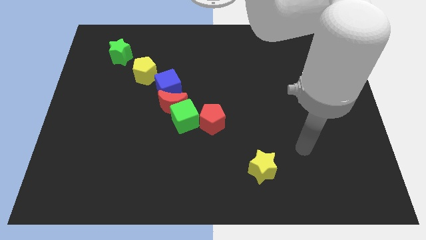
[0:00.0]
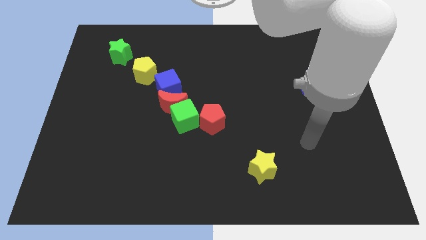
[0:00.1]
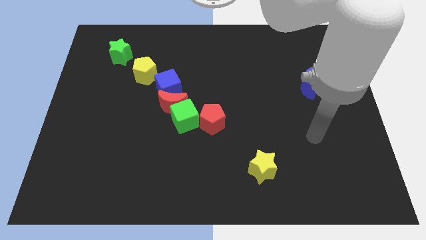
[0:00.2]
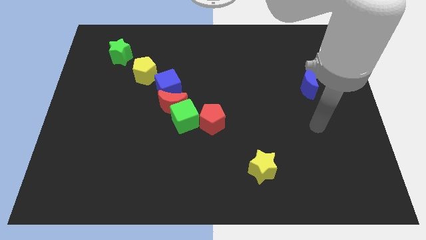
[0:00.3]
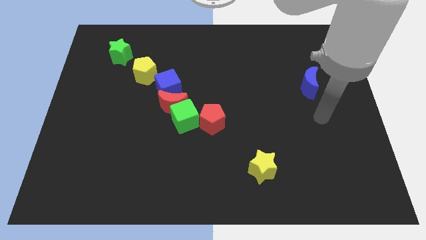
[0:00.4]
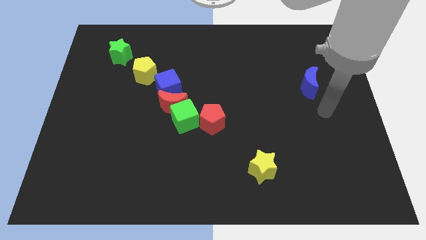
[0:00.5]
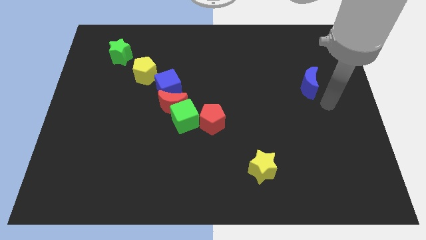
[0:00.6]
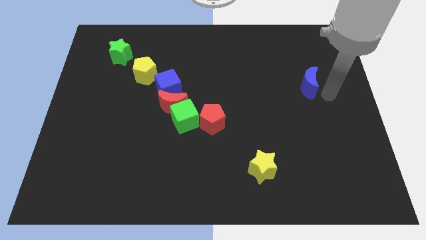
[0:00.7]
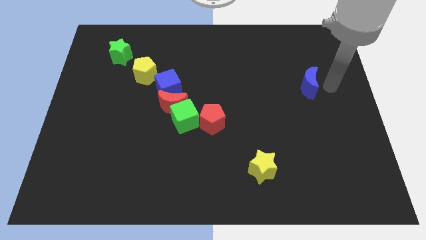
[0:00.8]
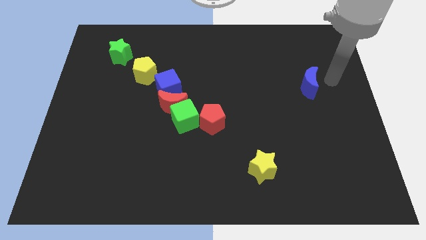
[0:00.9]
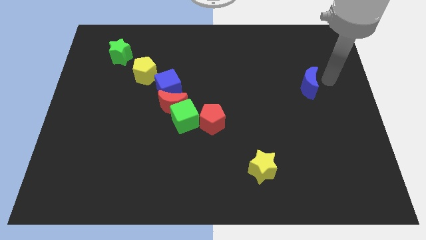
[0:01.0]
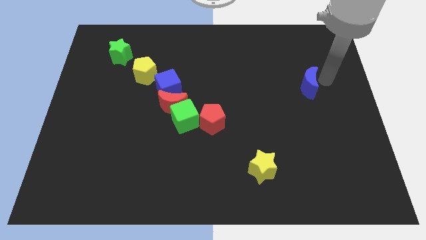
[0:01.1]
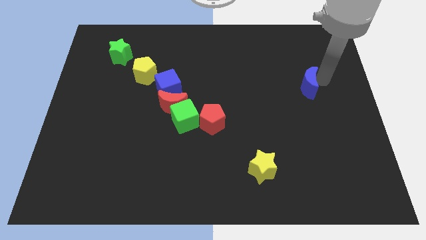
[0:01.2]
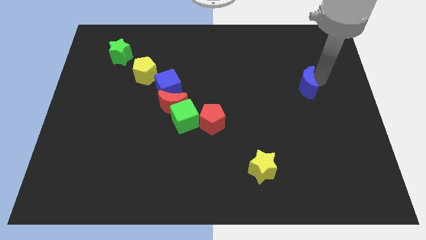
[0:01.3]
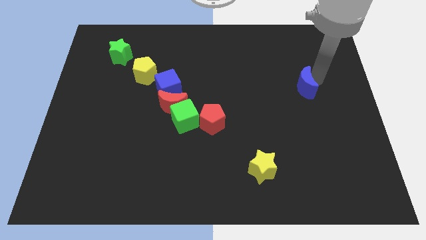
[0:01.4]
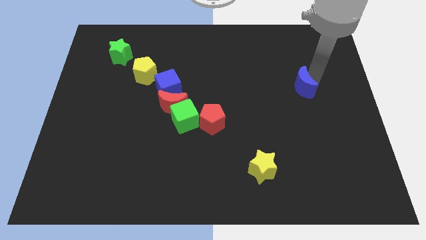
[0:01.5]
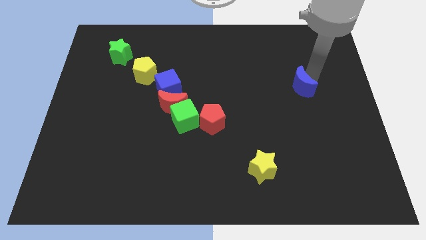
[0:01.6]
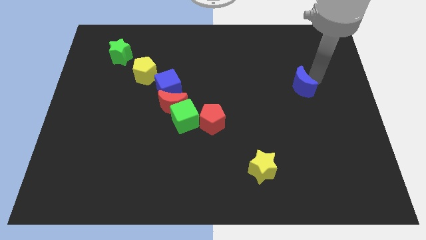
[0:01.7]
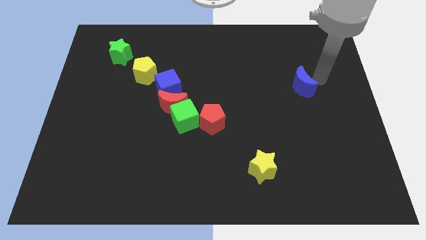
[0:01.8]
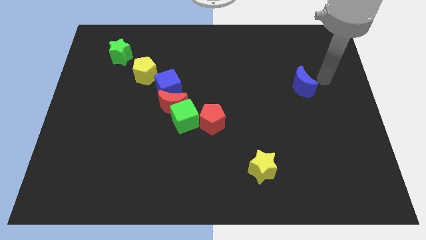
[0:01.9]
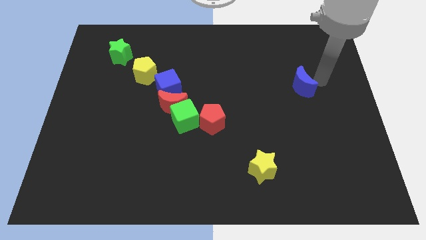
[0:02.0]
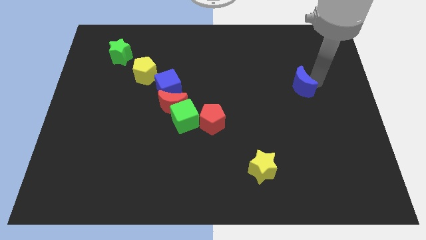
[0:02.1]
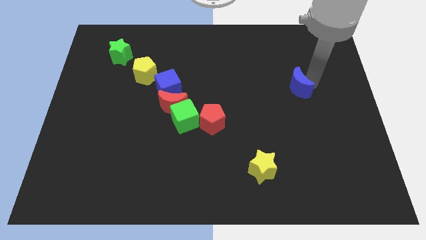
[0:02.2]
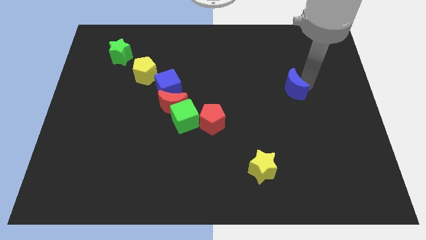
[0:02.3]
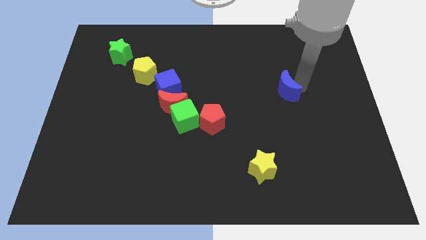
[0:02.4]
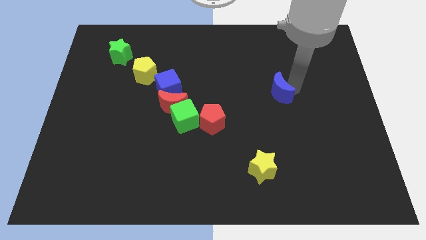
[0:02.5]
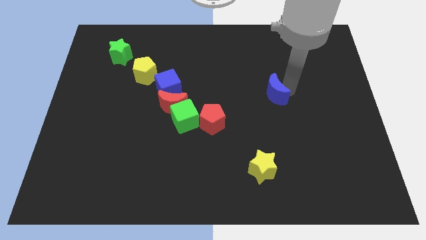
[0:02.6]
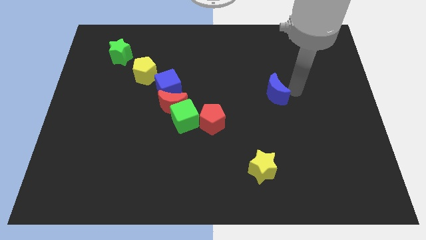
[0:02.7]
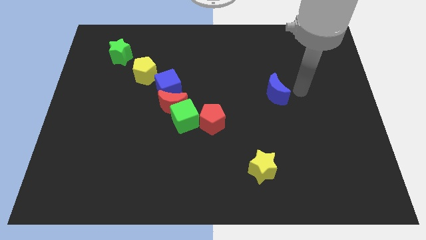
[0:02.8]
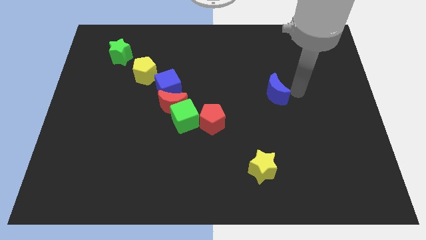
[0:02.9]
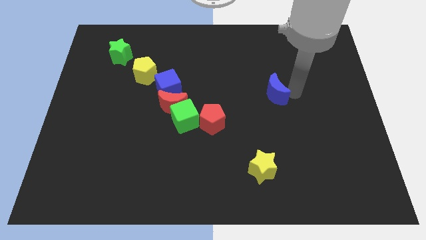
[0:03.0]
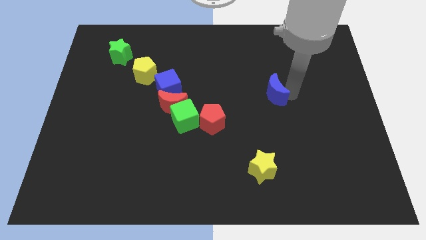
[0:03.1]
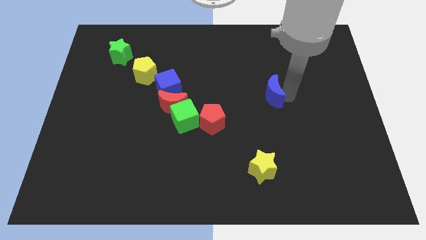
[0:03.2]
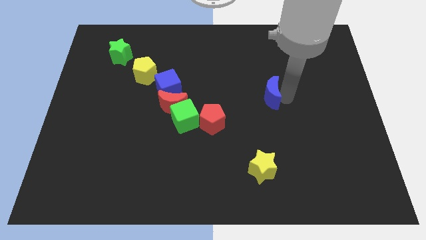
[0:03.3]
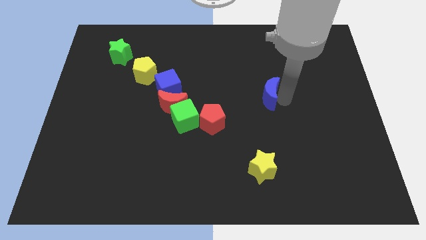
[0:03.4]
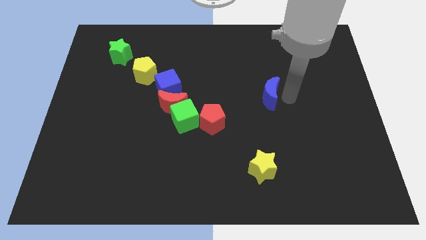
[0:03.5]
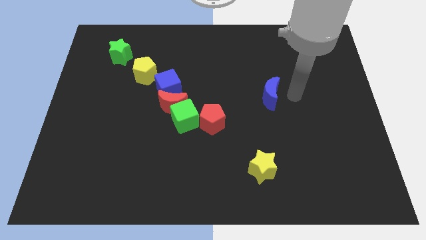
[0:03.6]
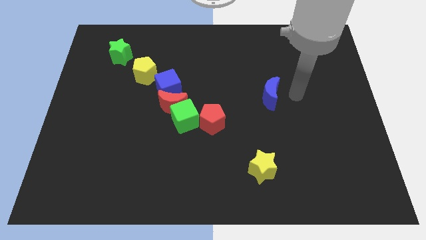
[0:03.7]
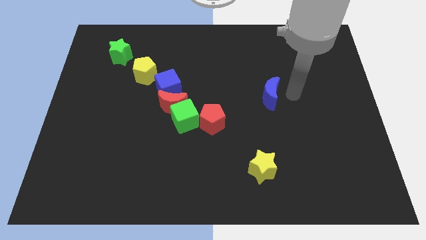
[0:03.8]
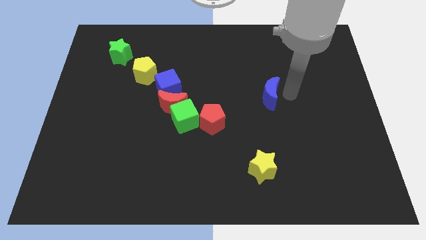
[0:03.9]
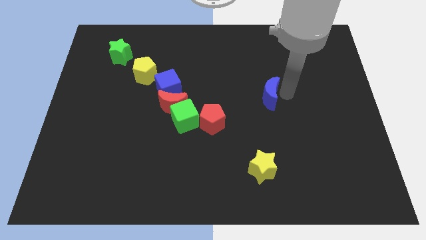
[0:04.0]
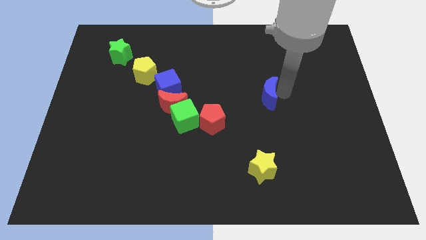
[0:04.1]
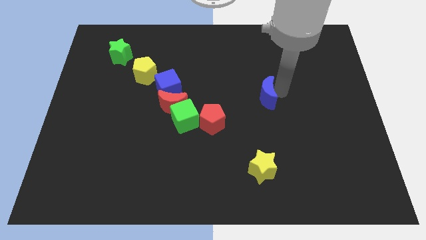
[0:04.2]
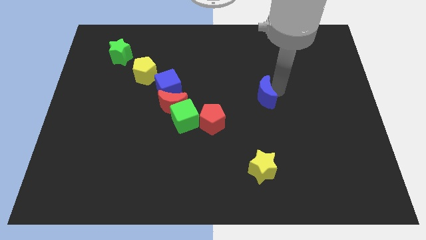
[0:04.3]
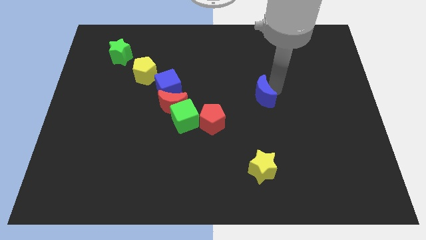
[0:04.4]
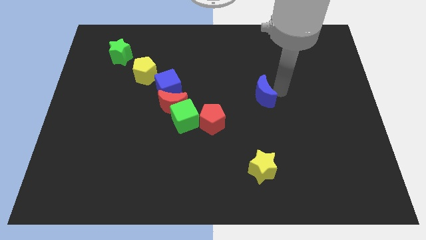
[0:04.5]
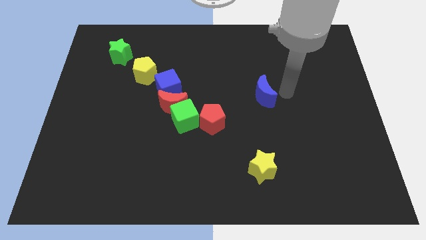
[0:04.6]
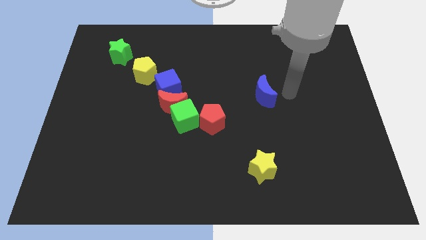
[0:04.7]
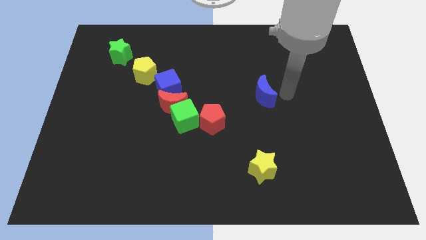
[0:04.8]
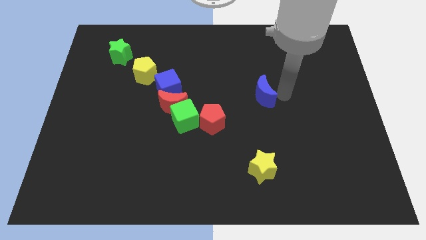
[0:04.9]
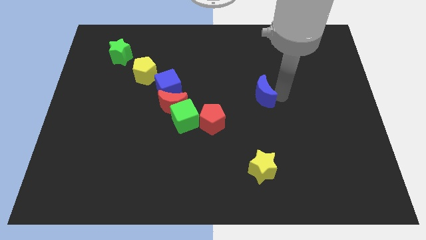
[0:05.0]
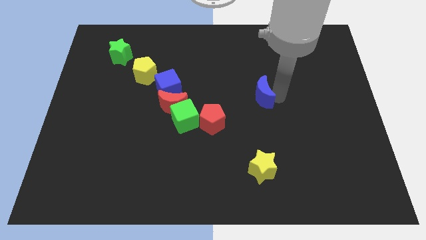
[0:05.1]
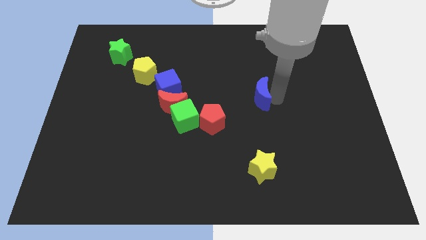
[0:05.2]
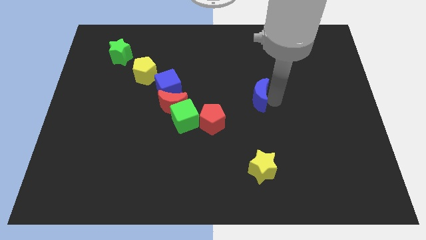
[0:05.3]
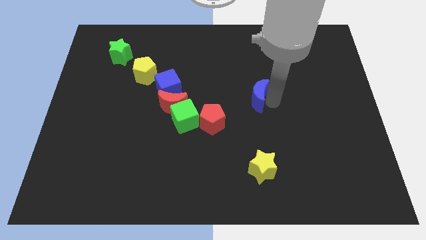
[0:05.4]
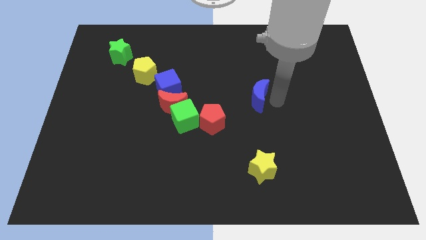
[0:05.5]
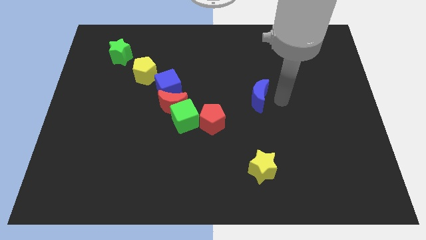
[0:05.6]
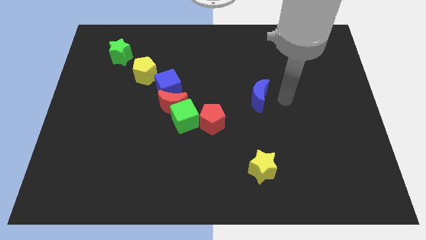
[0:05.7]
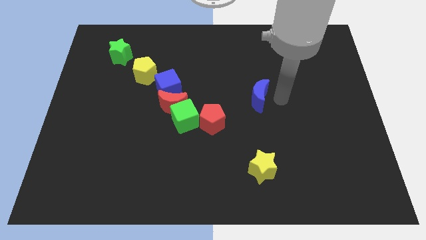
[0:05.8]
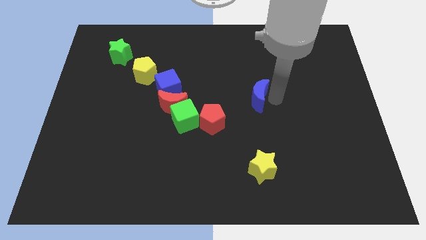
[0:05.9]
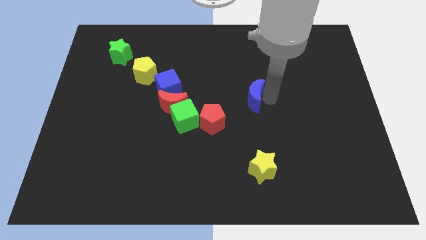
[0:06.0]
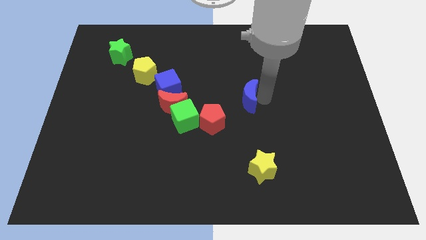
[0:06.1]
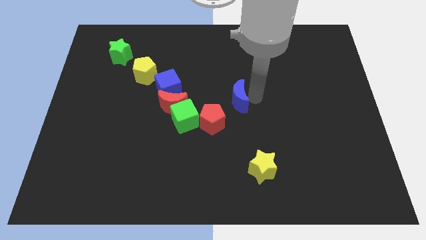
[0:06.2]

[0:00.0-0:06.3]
move the blue moon to the right of the red moon

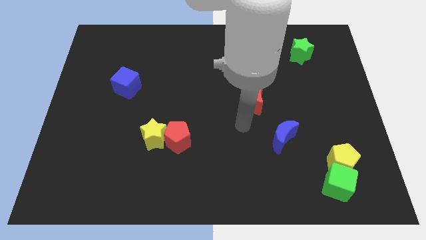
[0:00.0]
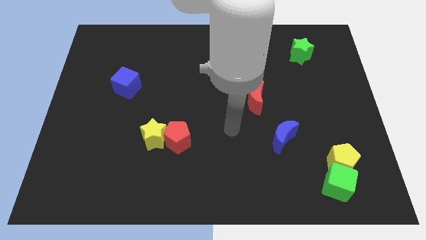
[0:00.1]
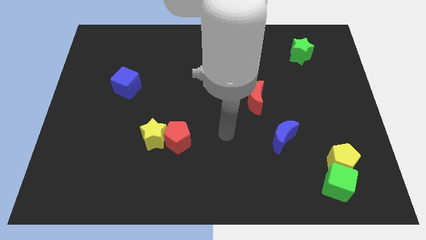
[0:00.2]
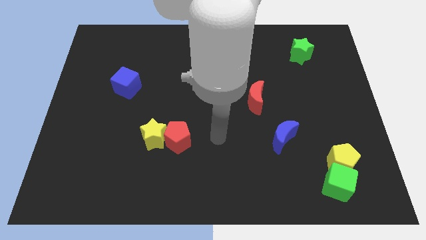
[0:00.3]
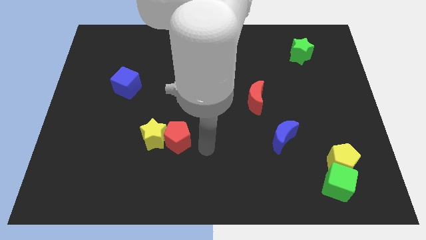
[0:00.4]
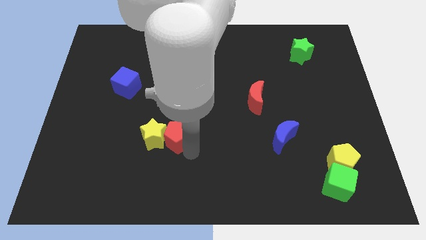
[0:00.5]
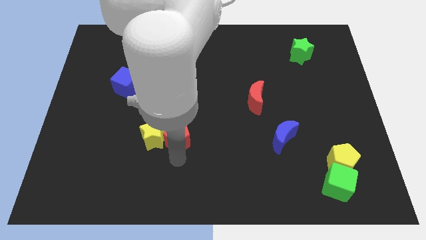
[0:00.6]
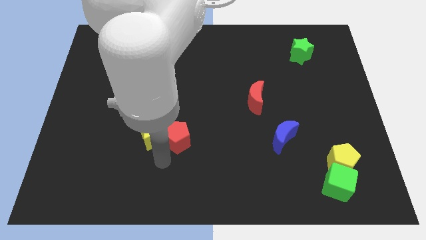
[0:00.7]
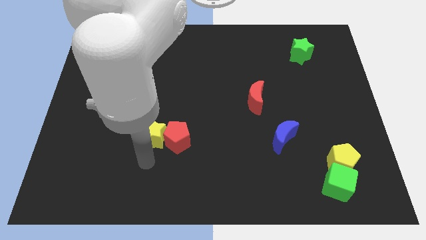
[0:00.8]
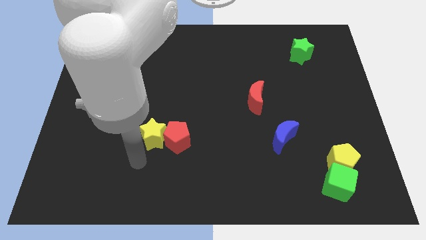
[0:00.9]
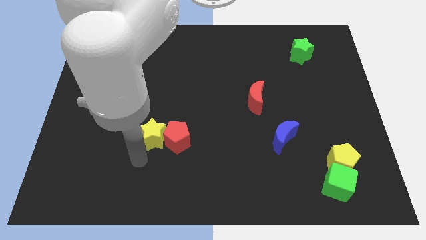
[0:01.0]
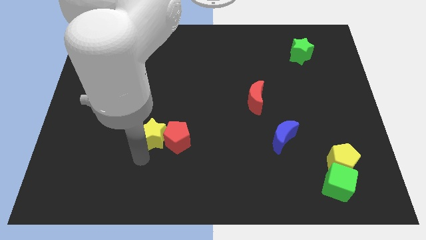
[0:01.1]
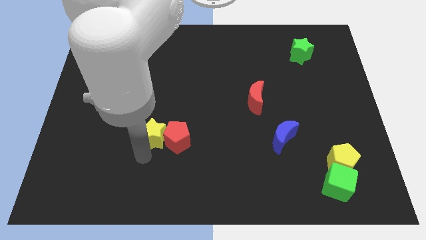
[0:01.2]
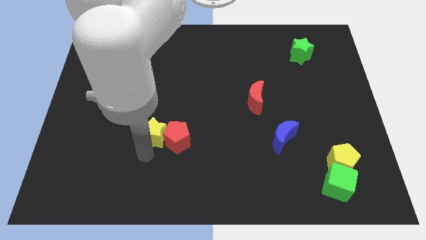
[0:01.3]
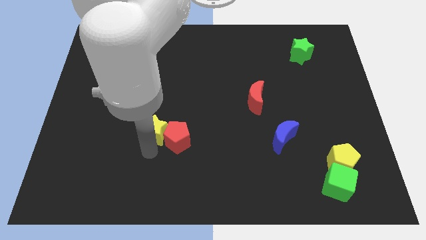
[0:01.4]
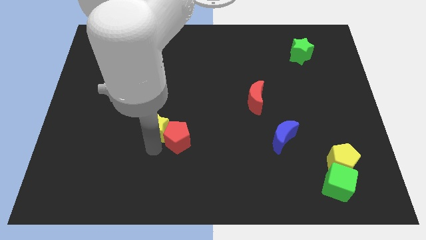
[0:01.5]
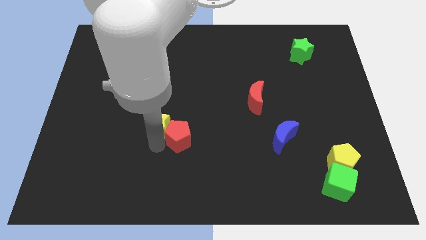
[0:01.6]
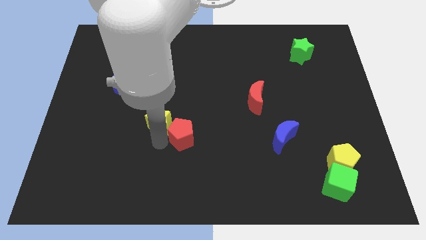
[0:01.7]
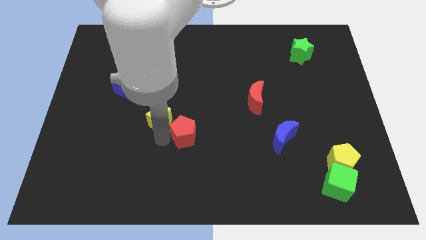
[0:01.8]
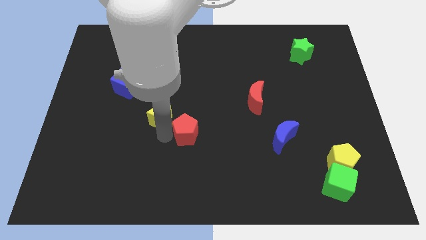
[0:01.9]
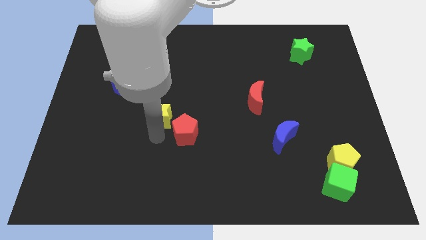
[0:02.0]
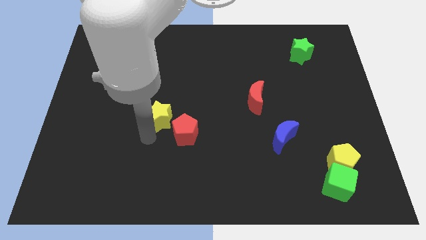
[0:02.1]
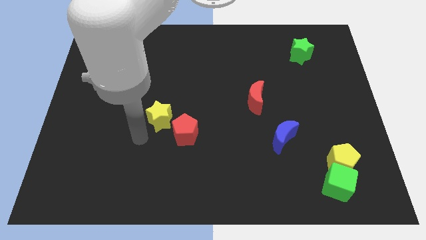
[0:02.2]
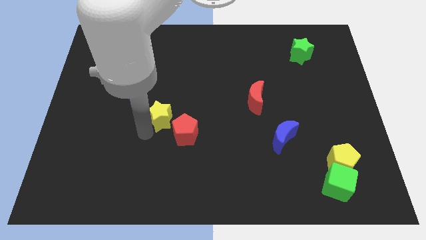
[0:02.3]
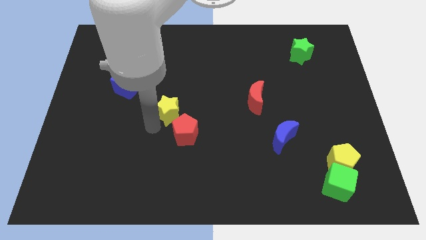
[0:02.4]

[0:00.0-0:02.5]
slide the yellow star above the red pentagon
